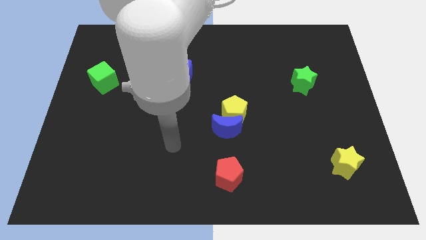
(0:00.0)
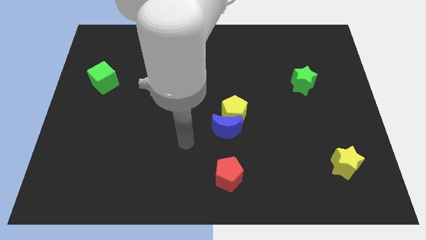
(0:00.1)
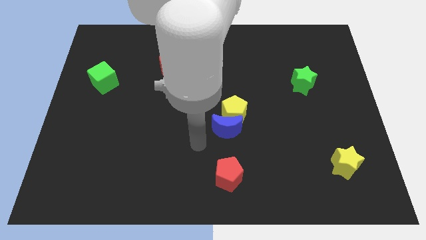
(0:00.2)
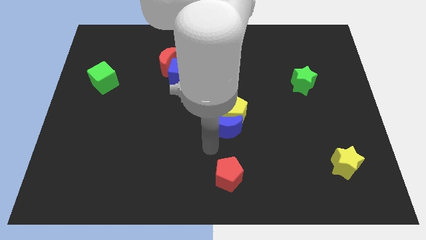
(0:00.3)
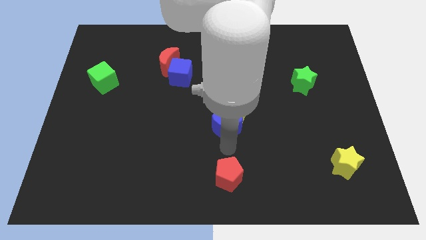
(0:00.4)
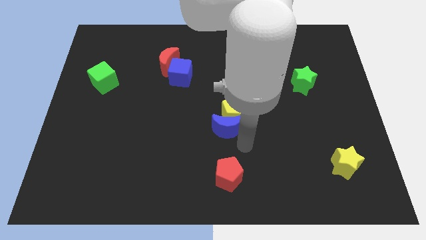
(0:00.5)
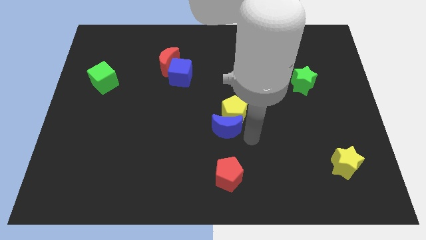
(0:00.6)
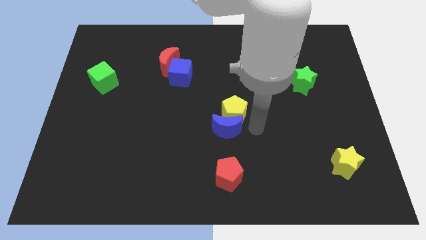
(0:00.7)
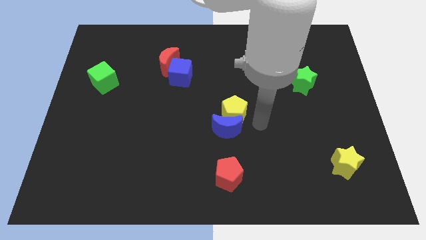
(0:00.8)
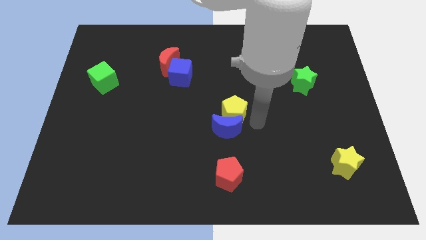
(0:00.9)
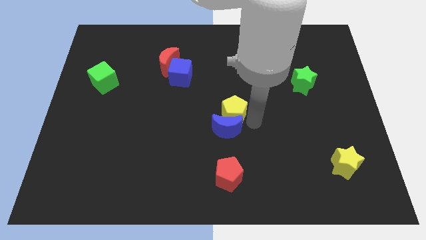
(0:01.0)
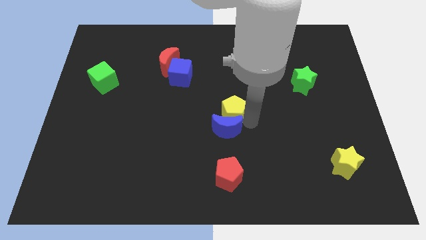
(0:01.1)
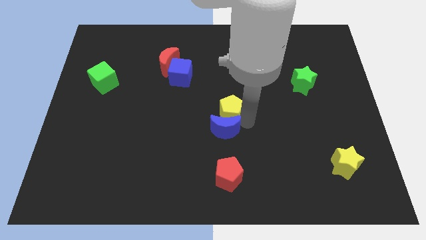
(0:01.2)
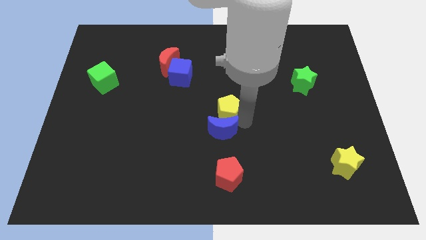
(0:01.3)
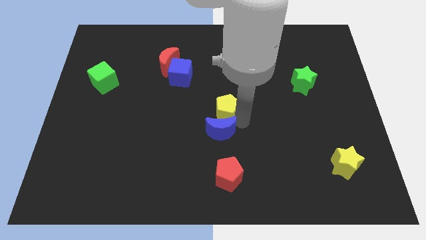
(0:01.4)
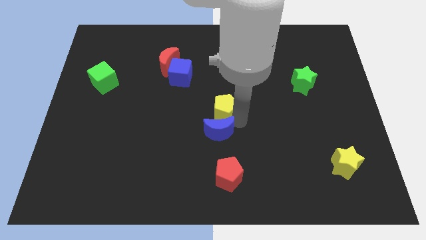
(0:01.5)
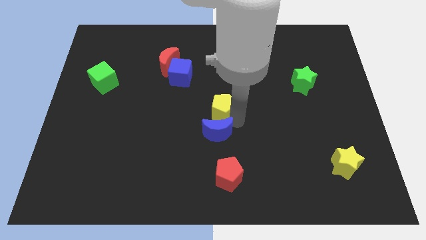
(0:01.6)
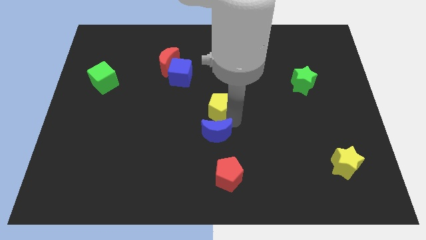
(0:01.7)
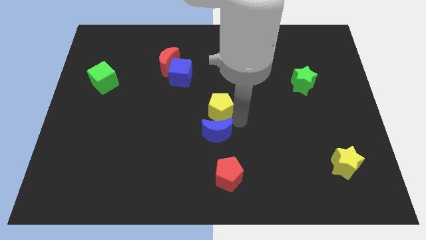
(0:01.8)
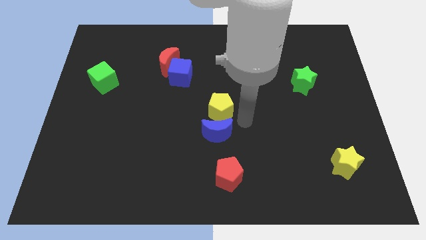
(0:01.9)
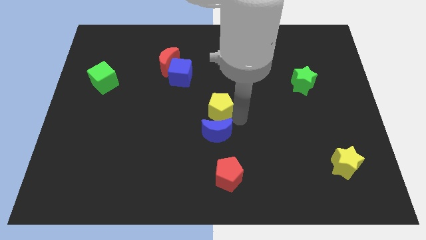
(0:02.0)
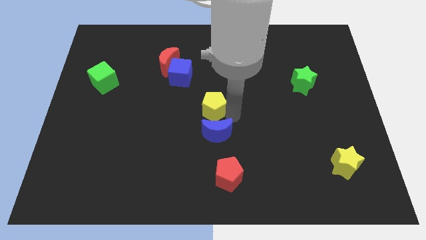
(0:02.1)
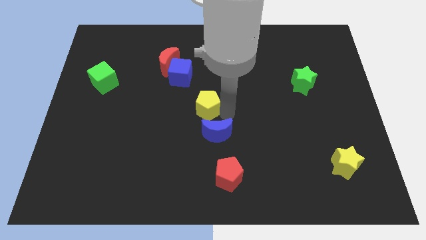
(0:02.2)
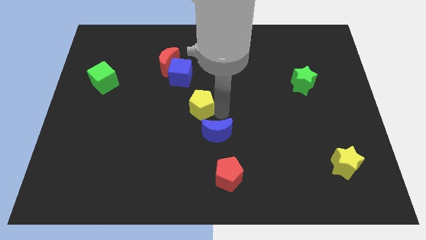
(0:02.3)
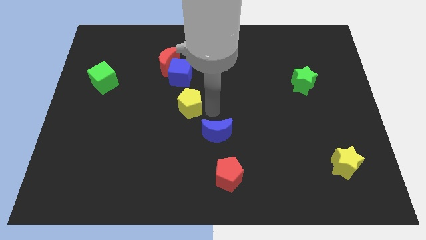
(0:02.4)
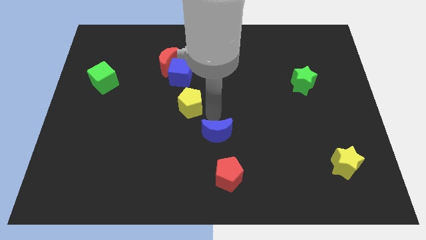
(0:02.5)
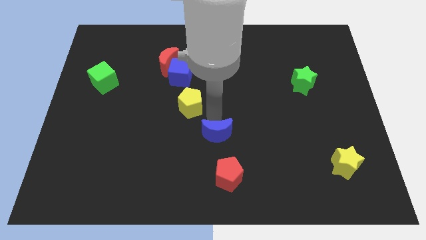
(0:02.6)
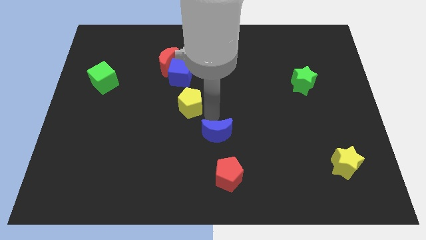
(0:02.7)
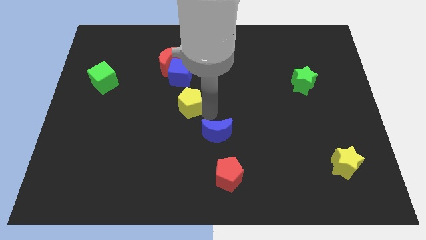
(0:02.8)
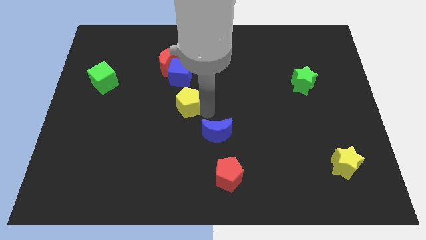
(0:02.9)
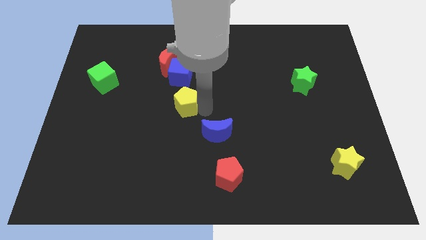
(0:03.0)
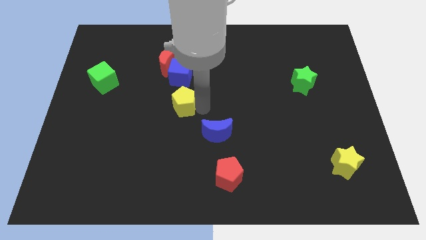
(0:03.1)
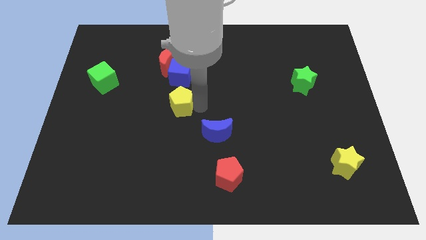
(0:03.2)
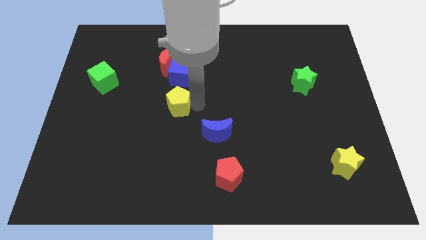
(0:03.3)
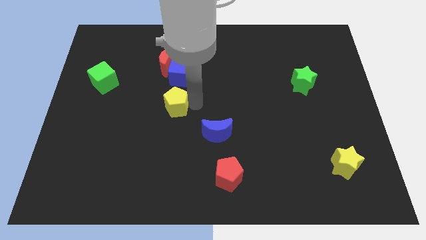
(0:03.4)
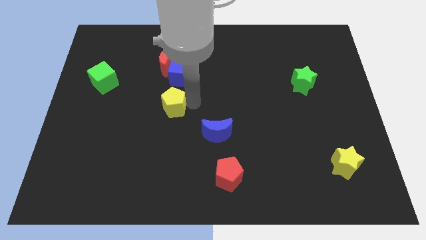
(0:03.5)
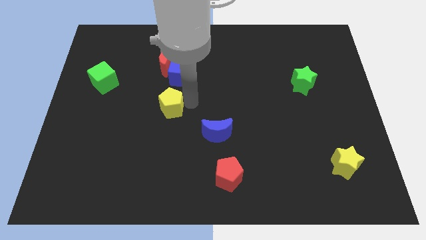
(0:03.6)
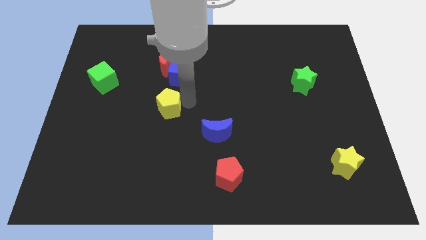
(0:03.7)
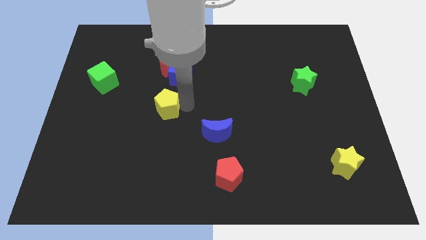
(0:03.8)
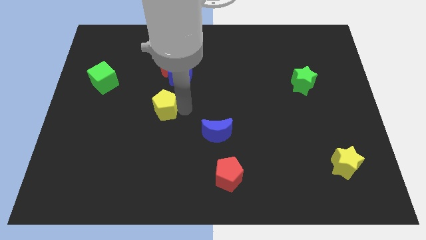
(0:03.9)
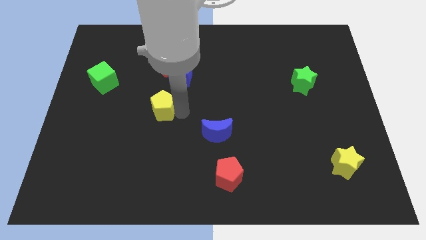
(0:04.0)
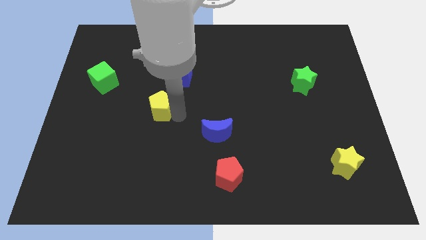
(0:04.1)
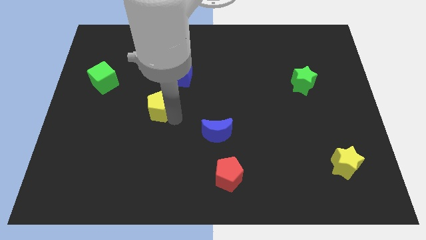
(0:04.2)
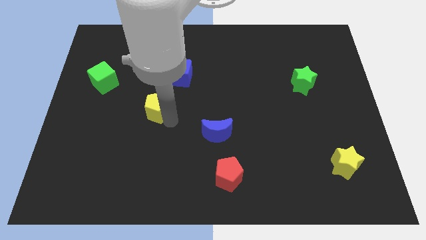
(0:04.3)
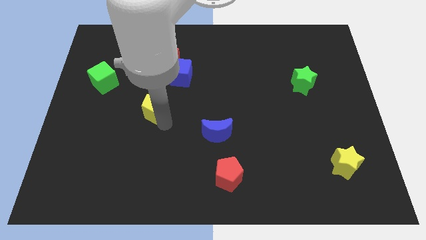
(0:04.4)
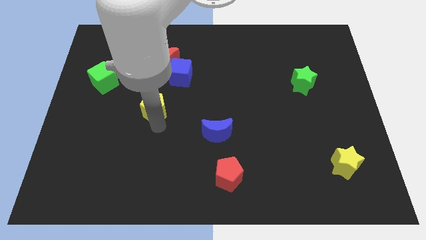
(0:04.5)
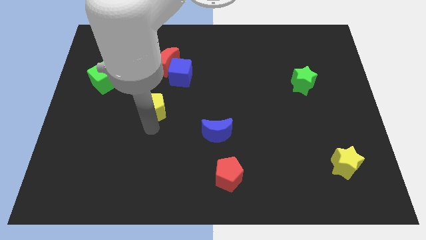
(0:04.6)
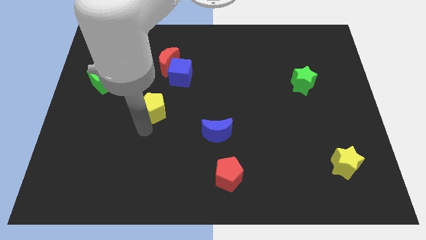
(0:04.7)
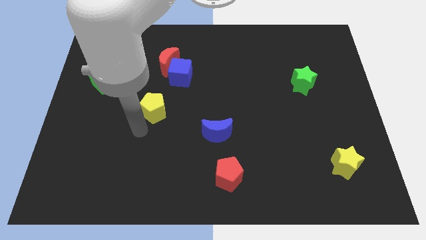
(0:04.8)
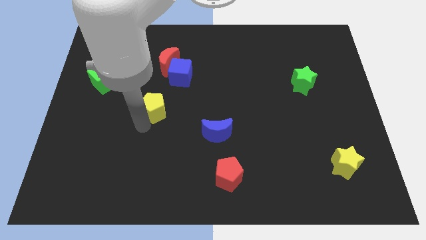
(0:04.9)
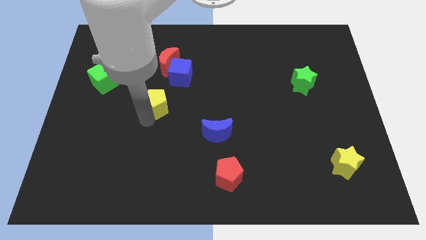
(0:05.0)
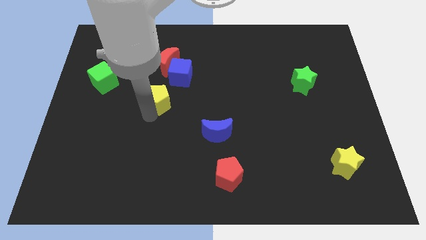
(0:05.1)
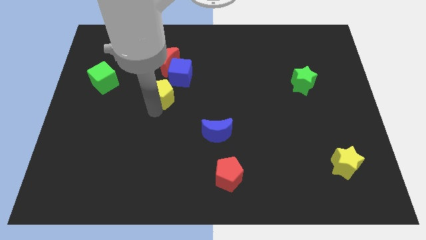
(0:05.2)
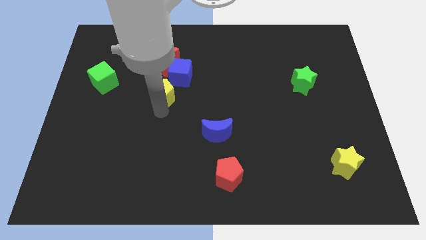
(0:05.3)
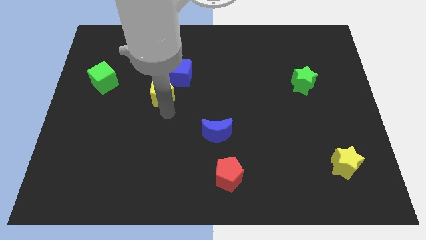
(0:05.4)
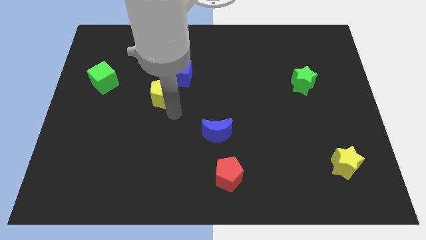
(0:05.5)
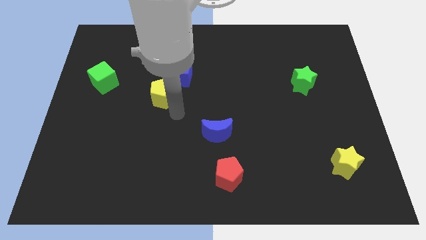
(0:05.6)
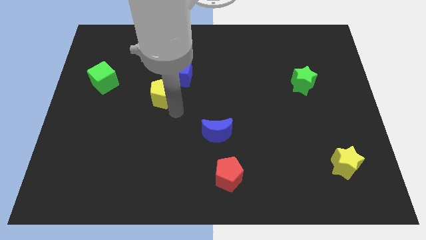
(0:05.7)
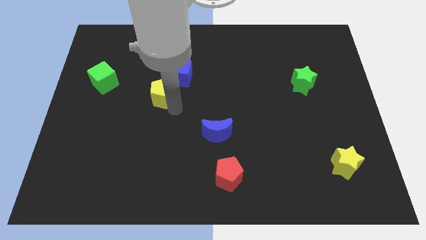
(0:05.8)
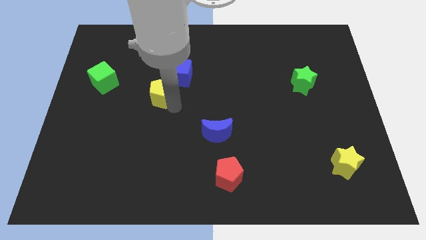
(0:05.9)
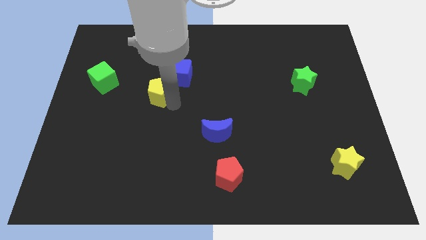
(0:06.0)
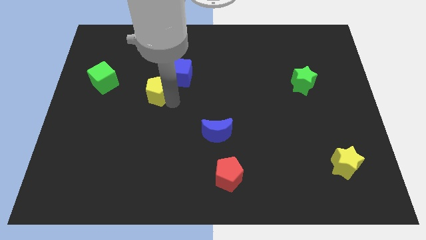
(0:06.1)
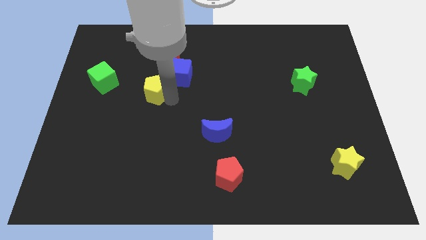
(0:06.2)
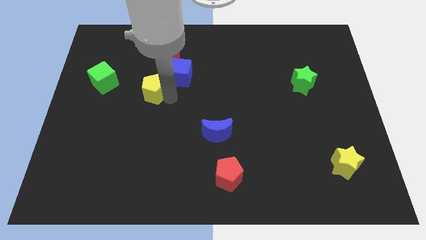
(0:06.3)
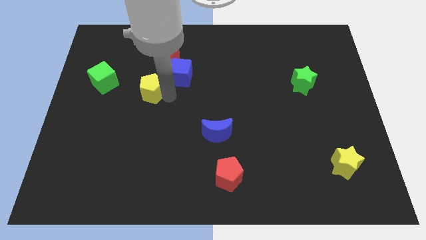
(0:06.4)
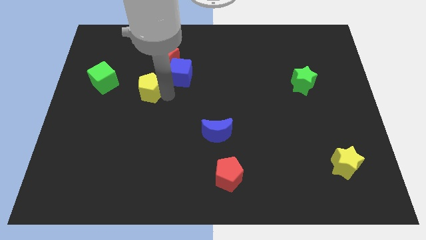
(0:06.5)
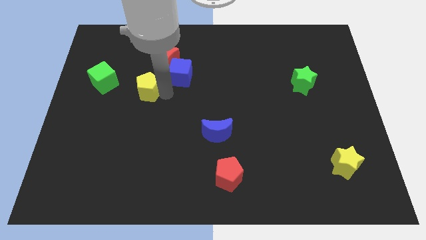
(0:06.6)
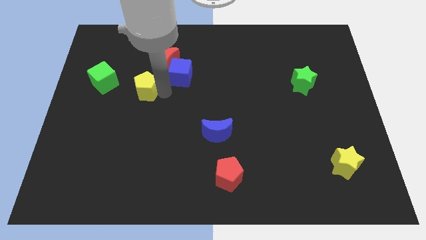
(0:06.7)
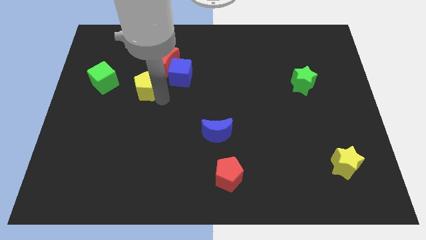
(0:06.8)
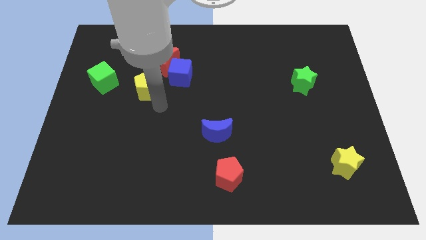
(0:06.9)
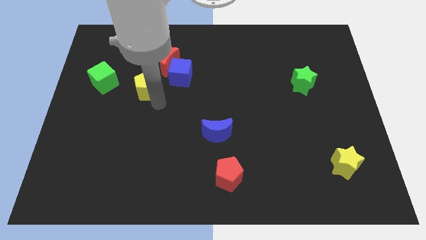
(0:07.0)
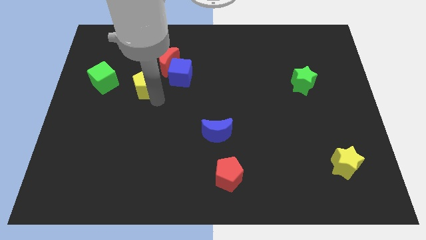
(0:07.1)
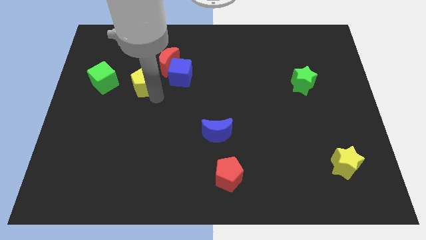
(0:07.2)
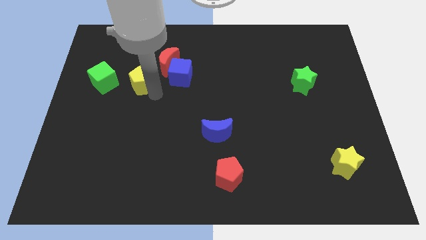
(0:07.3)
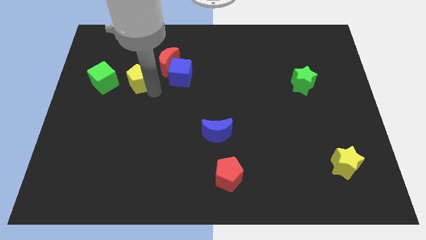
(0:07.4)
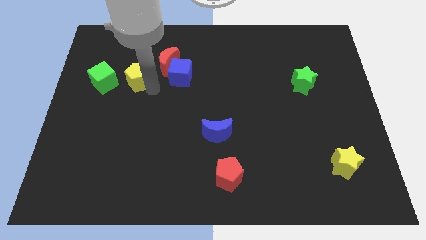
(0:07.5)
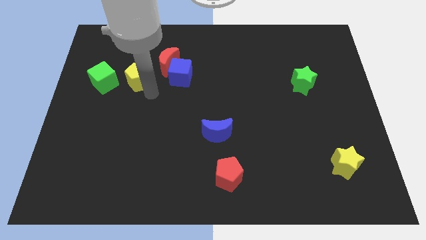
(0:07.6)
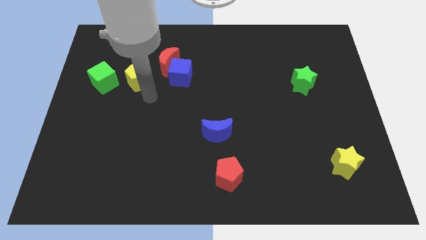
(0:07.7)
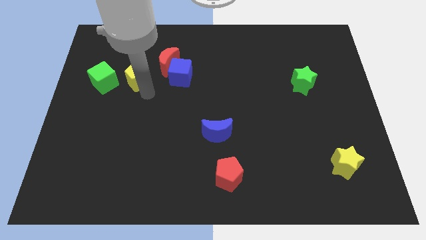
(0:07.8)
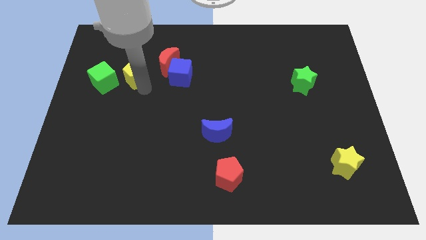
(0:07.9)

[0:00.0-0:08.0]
move the yellow pentagon to the left of the red moon
